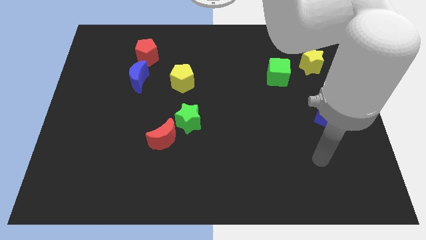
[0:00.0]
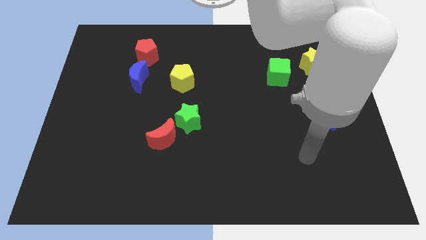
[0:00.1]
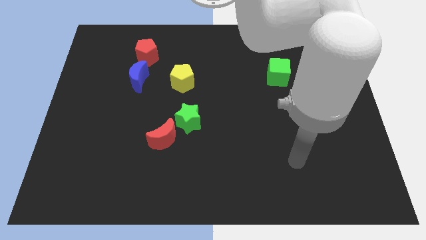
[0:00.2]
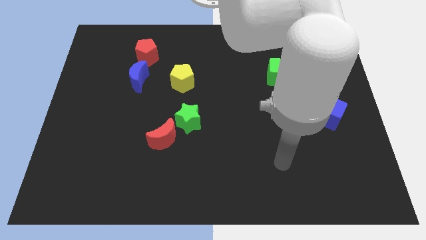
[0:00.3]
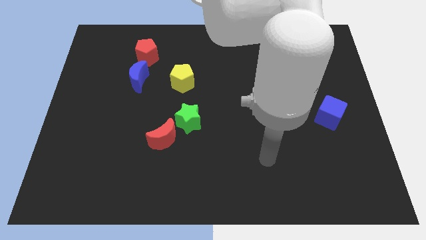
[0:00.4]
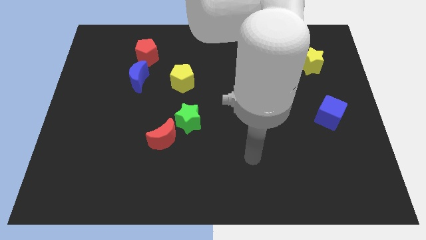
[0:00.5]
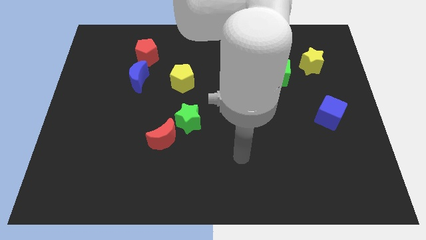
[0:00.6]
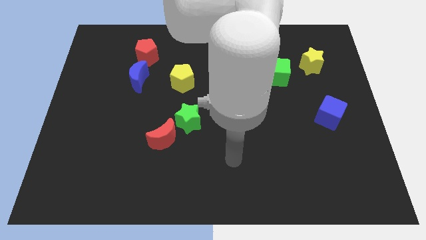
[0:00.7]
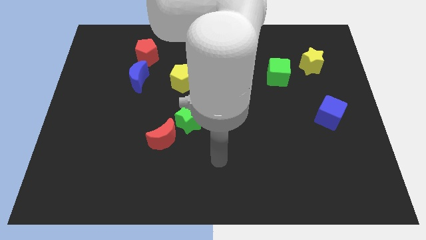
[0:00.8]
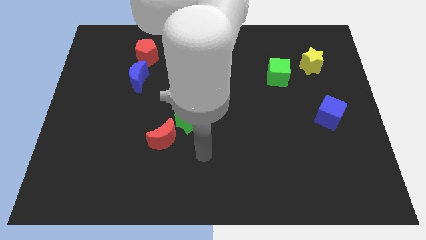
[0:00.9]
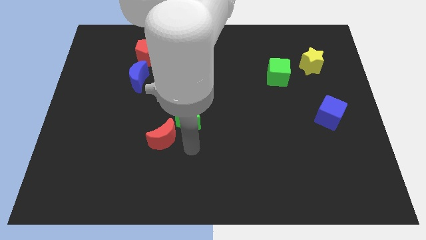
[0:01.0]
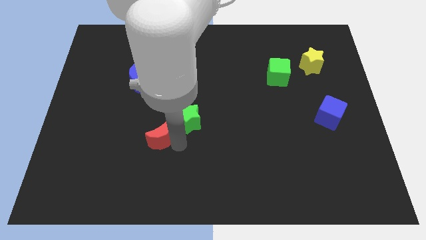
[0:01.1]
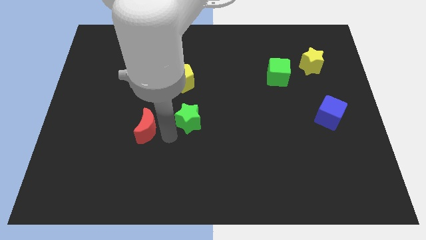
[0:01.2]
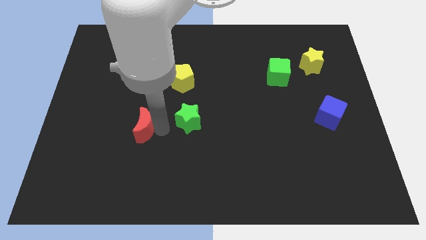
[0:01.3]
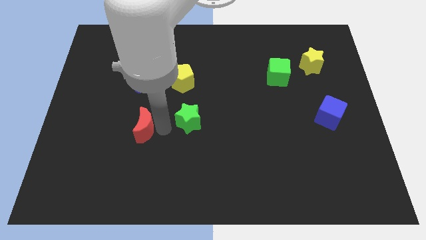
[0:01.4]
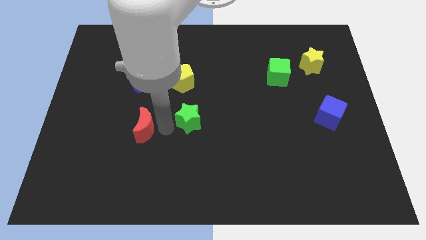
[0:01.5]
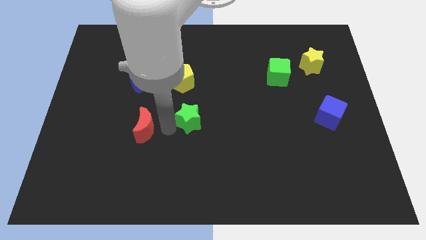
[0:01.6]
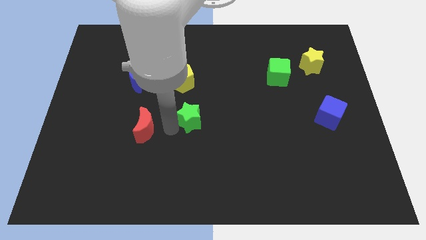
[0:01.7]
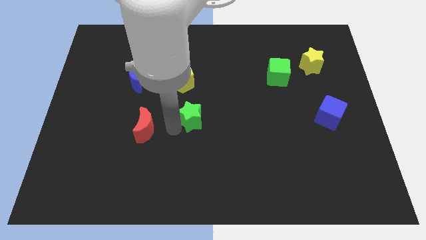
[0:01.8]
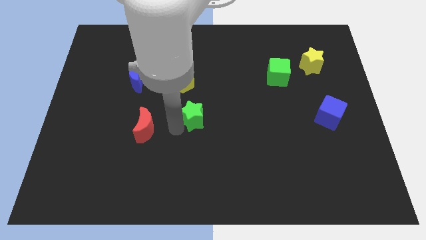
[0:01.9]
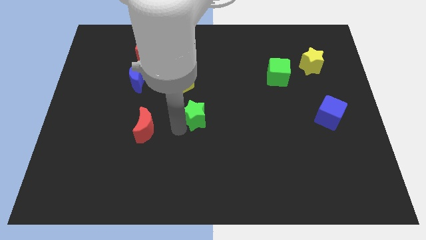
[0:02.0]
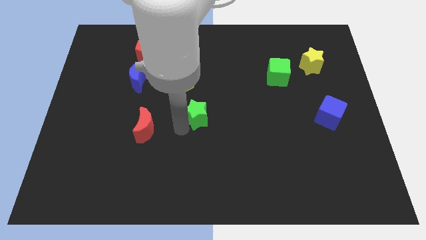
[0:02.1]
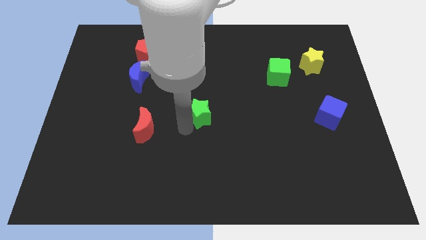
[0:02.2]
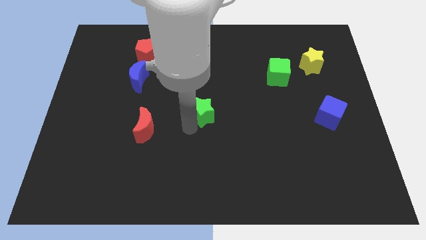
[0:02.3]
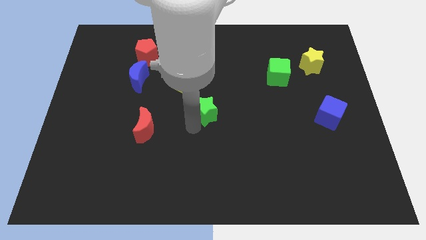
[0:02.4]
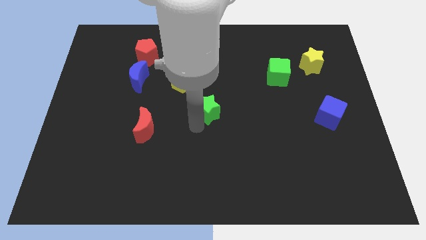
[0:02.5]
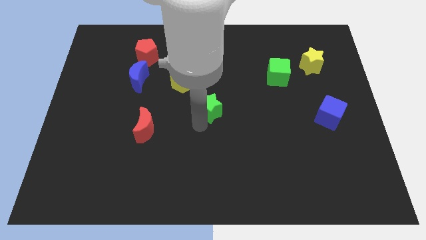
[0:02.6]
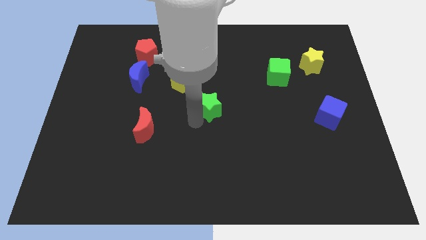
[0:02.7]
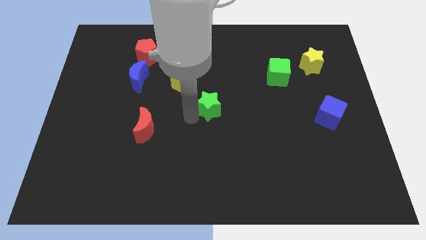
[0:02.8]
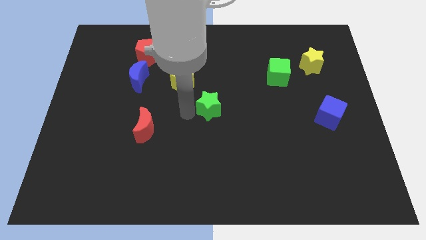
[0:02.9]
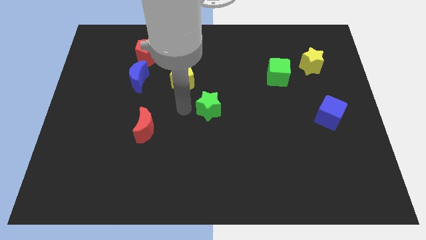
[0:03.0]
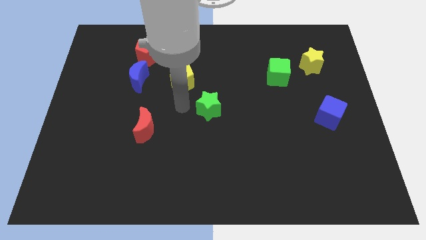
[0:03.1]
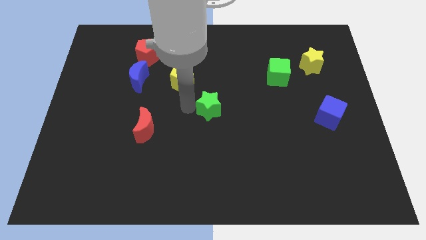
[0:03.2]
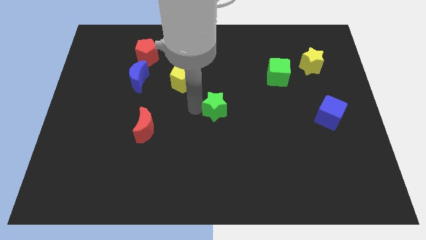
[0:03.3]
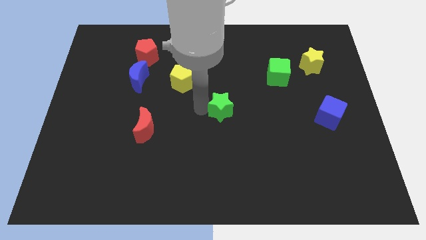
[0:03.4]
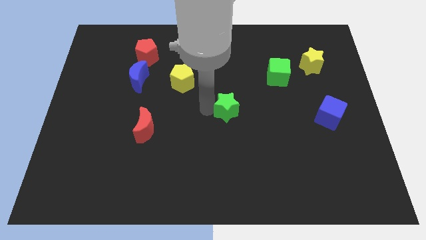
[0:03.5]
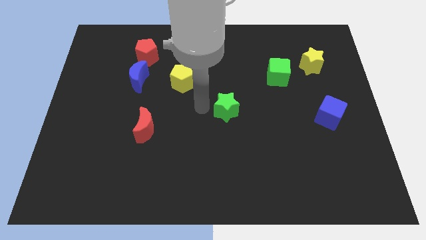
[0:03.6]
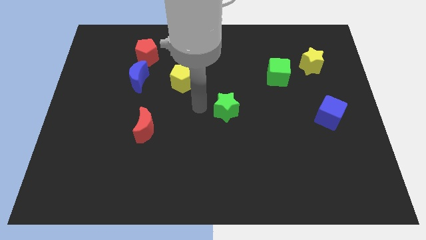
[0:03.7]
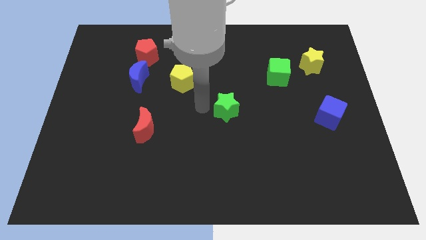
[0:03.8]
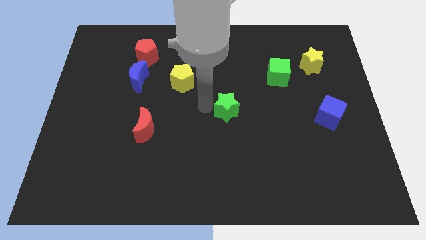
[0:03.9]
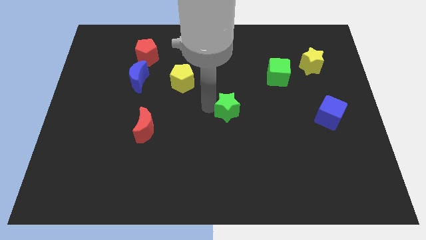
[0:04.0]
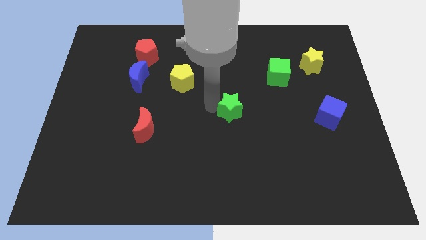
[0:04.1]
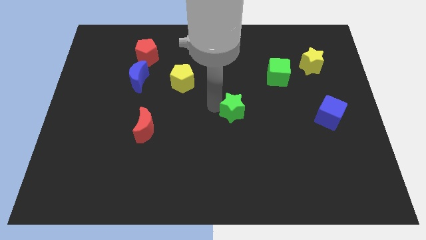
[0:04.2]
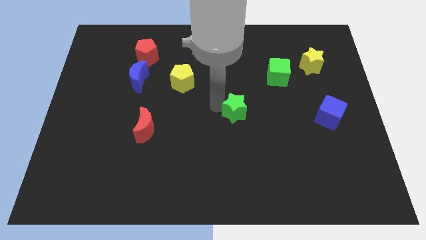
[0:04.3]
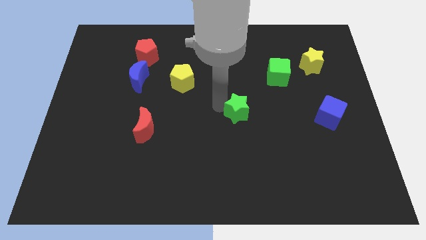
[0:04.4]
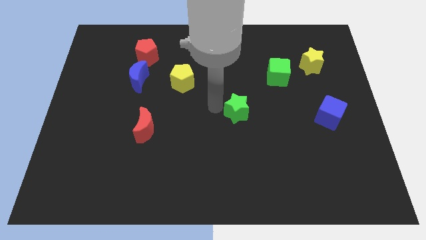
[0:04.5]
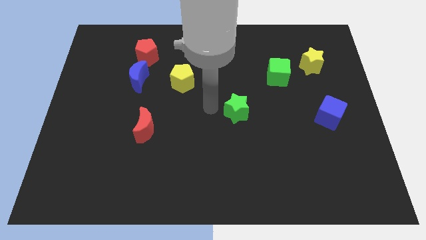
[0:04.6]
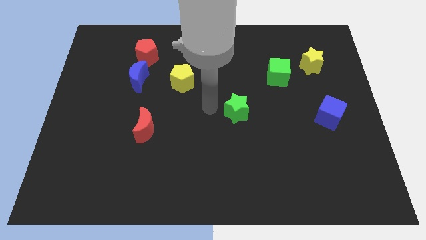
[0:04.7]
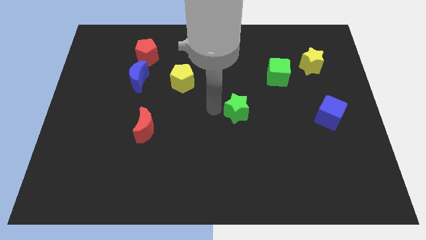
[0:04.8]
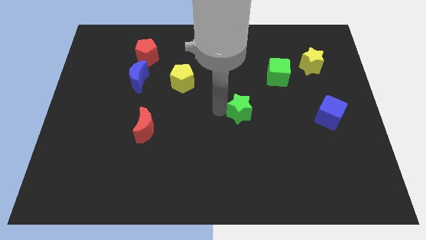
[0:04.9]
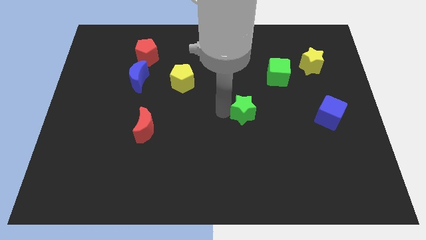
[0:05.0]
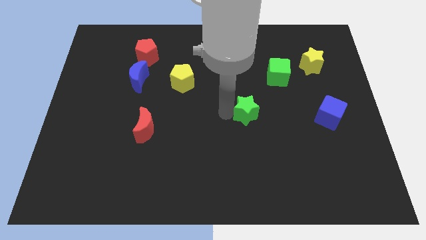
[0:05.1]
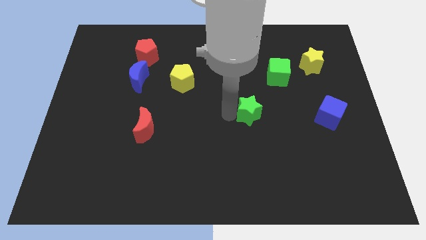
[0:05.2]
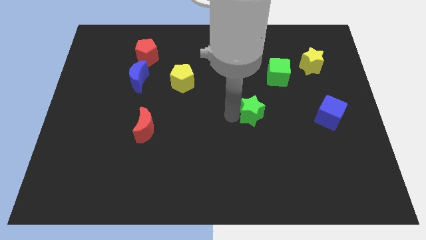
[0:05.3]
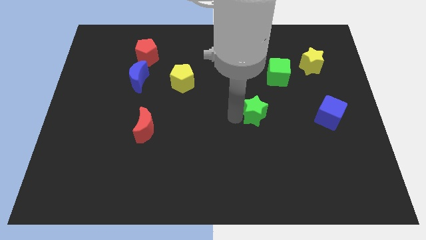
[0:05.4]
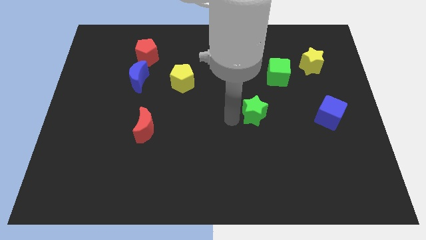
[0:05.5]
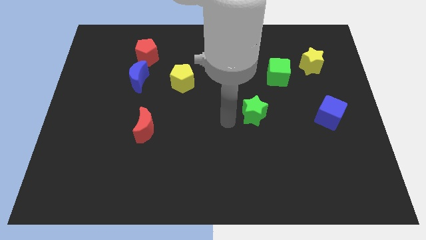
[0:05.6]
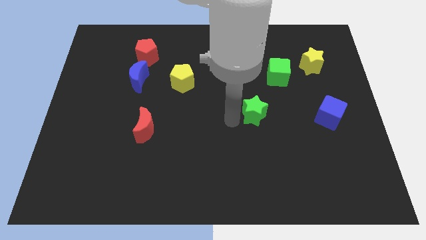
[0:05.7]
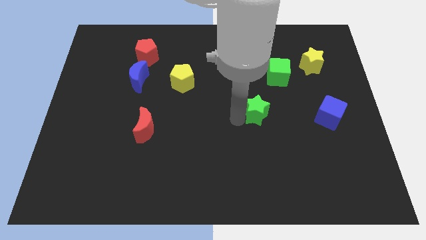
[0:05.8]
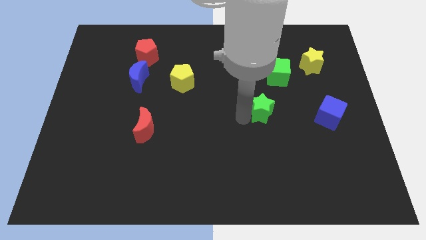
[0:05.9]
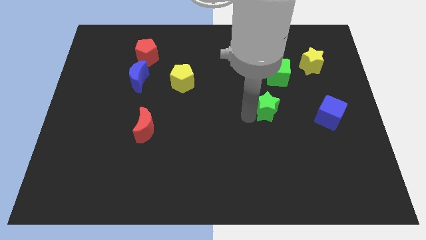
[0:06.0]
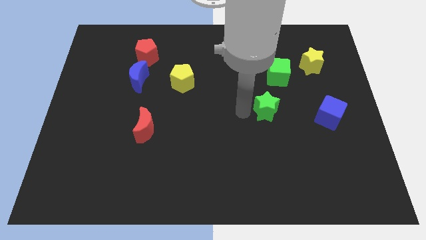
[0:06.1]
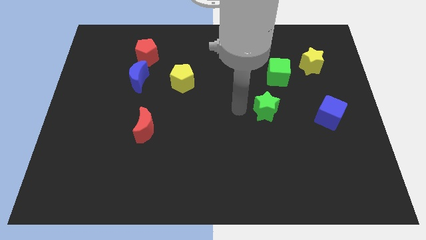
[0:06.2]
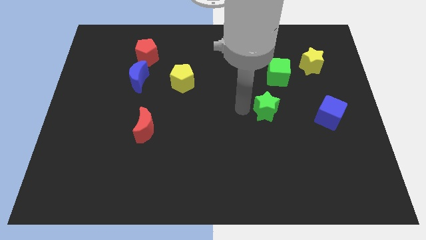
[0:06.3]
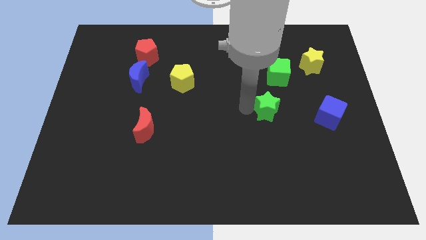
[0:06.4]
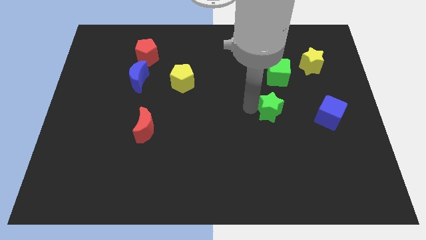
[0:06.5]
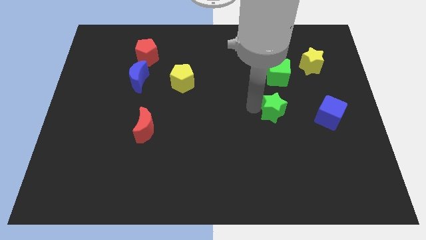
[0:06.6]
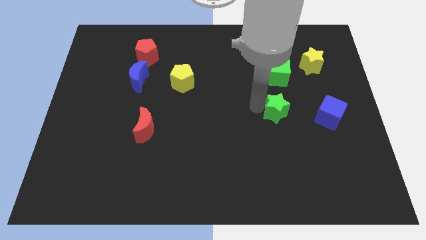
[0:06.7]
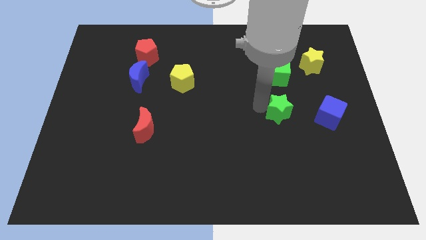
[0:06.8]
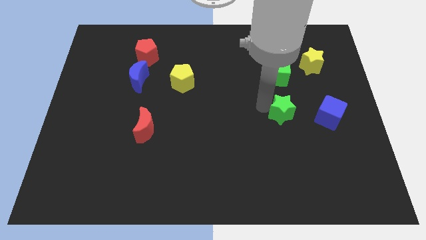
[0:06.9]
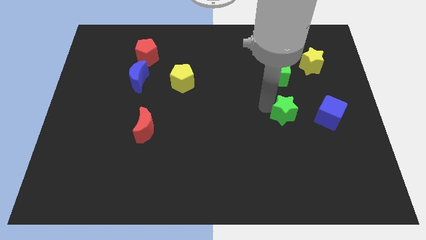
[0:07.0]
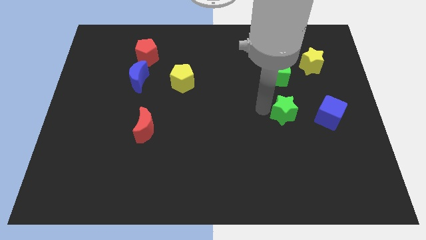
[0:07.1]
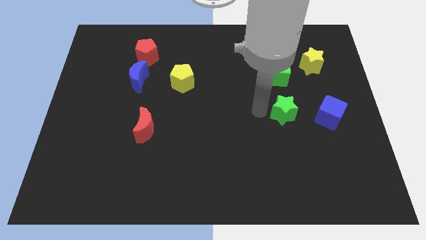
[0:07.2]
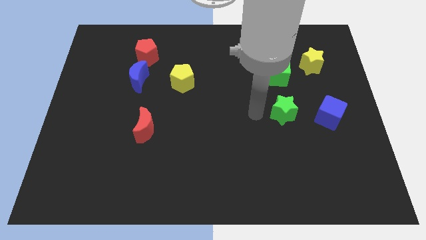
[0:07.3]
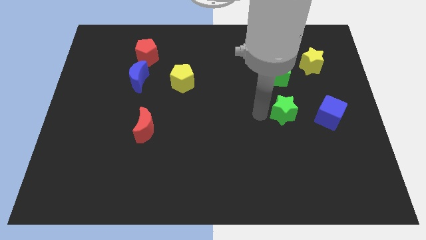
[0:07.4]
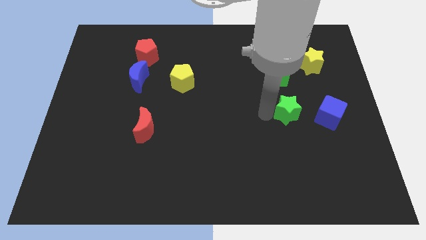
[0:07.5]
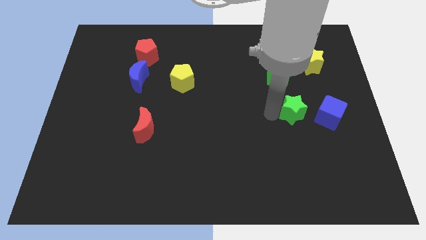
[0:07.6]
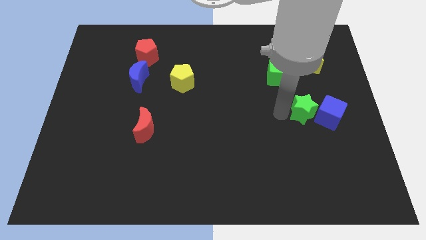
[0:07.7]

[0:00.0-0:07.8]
push the green star close to the blue cube
